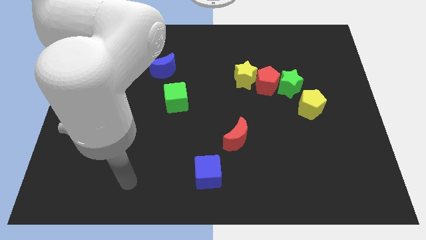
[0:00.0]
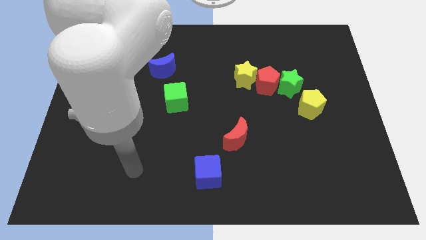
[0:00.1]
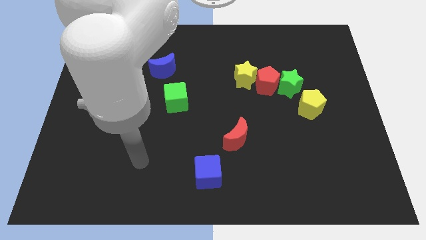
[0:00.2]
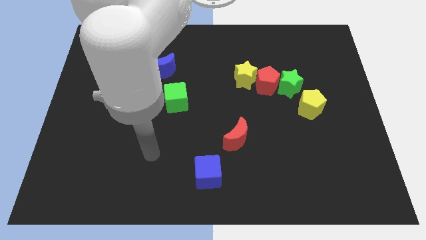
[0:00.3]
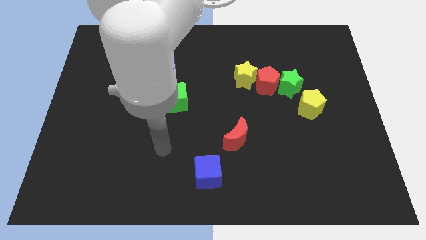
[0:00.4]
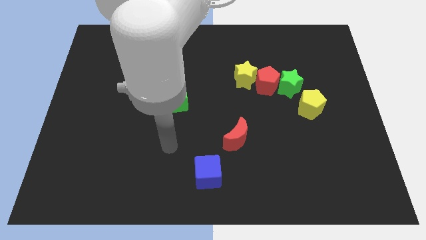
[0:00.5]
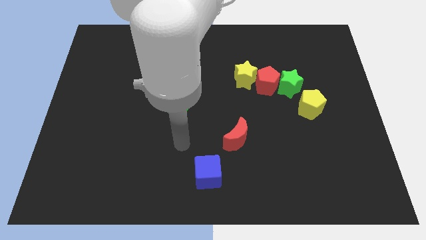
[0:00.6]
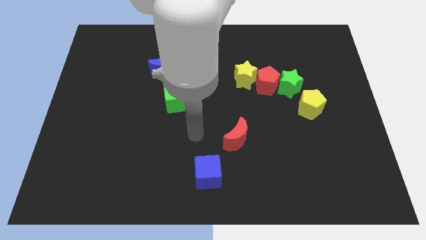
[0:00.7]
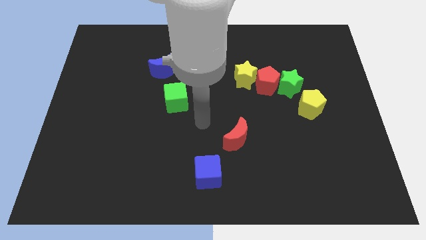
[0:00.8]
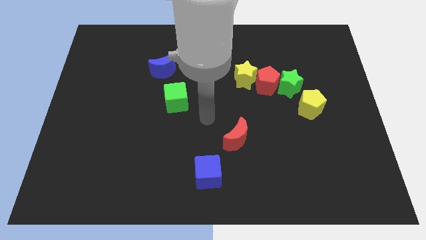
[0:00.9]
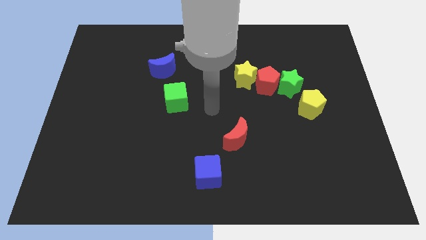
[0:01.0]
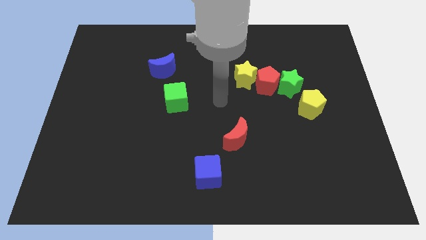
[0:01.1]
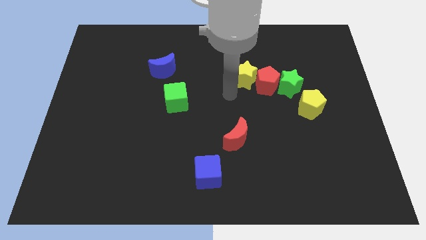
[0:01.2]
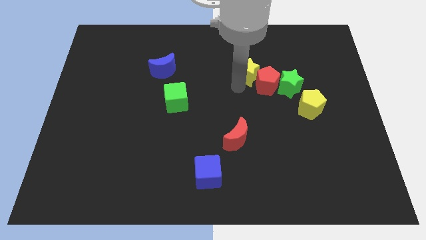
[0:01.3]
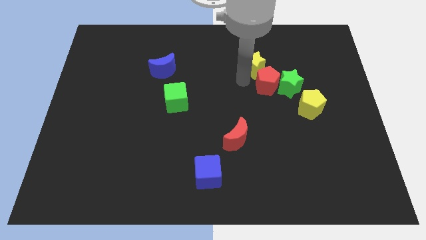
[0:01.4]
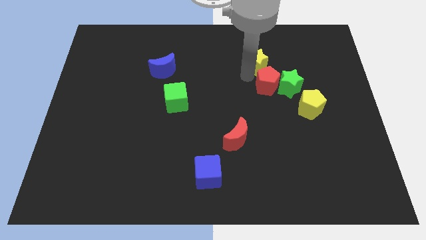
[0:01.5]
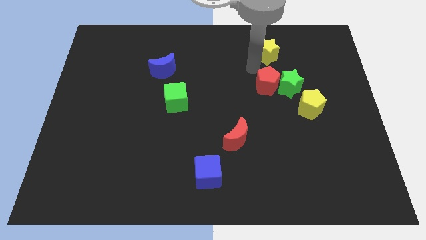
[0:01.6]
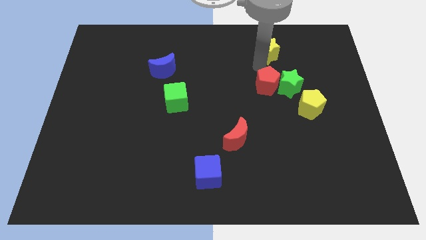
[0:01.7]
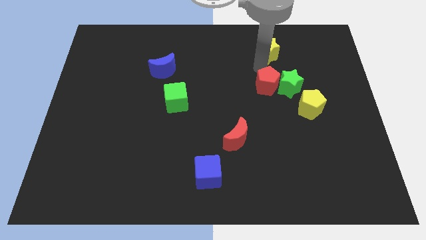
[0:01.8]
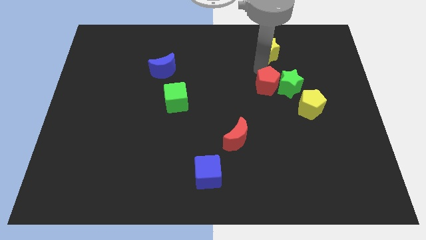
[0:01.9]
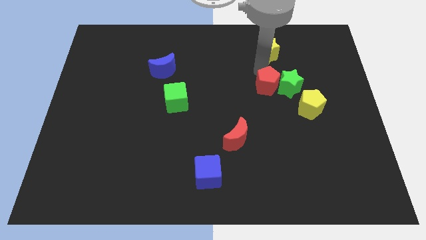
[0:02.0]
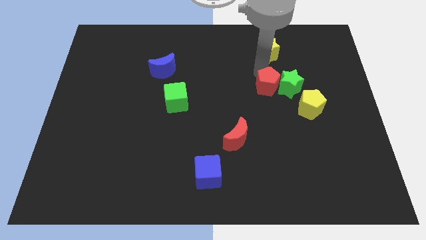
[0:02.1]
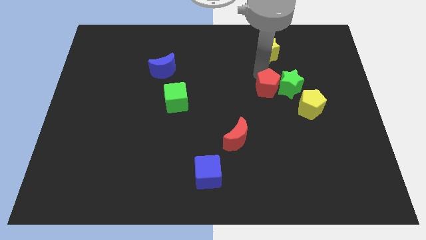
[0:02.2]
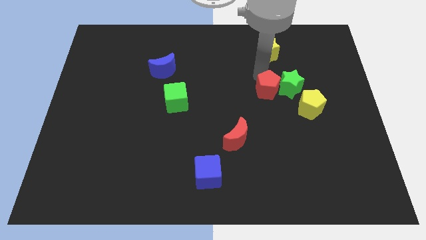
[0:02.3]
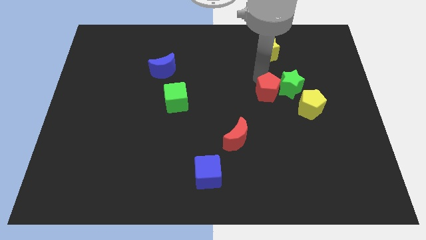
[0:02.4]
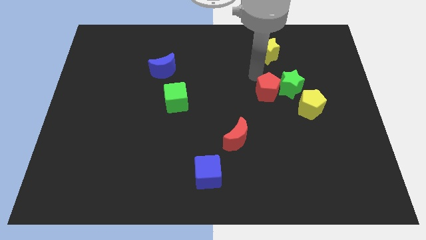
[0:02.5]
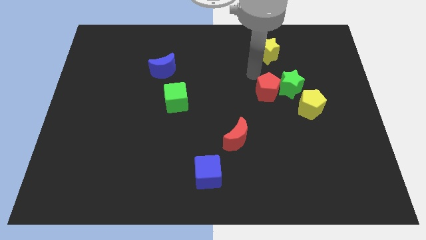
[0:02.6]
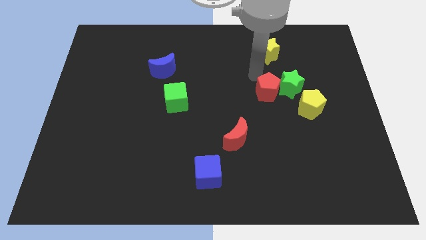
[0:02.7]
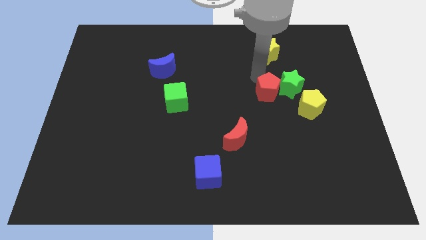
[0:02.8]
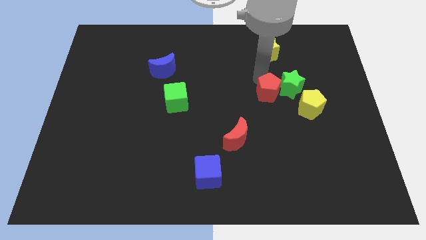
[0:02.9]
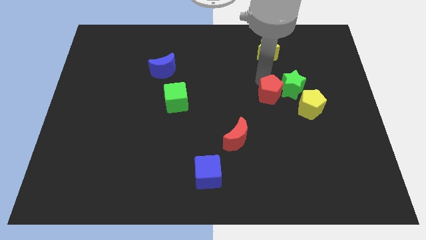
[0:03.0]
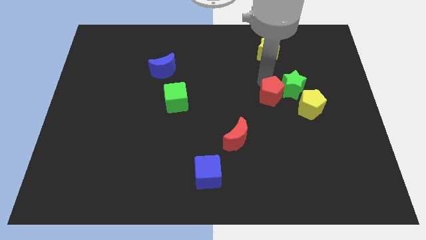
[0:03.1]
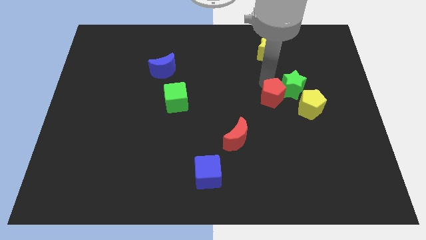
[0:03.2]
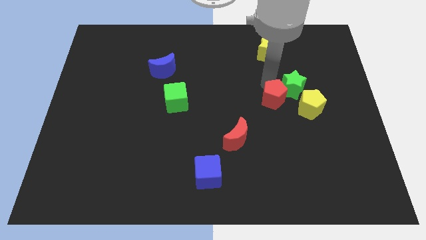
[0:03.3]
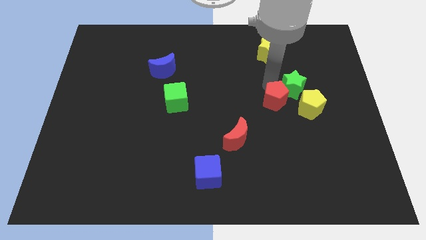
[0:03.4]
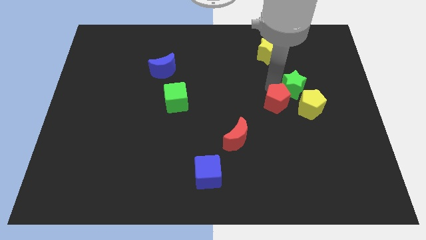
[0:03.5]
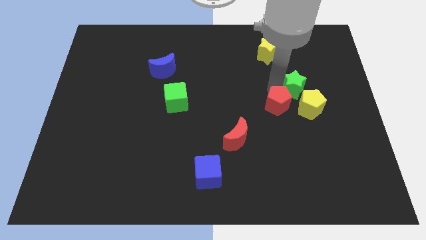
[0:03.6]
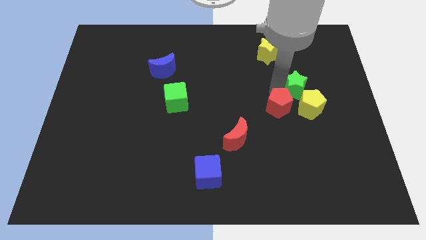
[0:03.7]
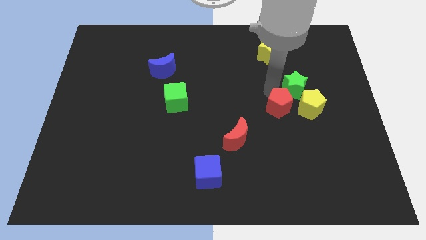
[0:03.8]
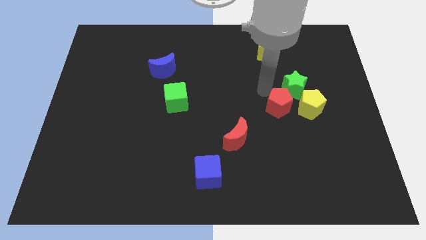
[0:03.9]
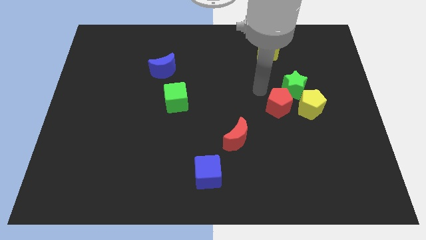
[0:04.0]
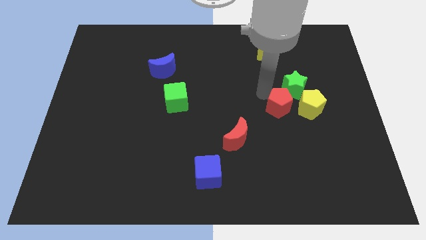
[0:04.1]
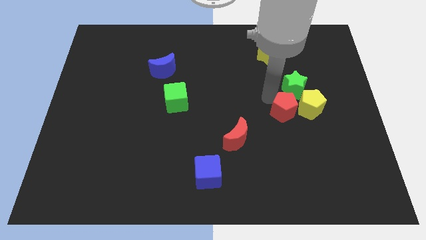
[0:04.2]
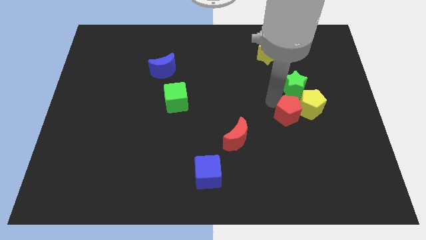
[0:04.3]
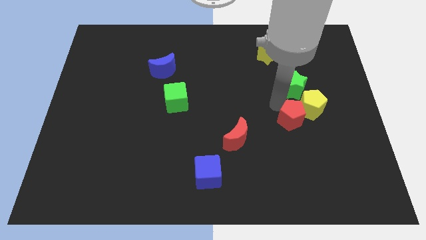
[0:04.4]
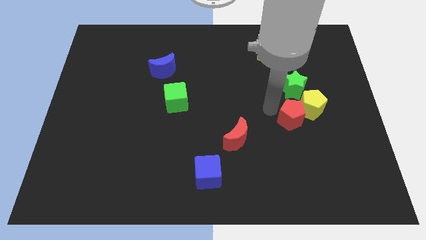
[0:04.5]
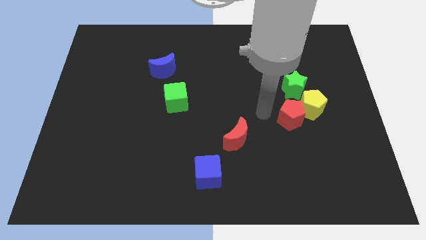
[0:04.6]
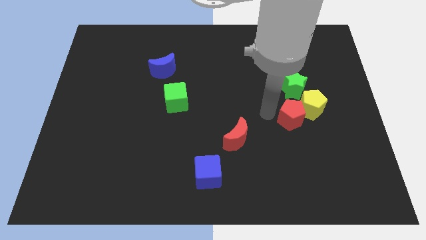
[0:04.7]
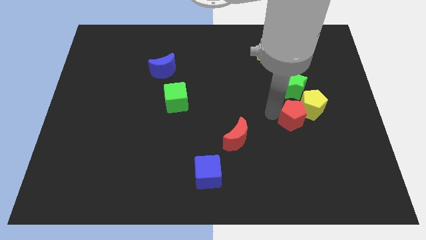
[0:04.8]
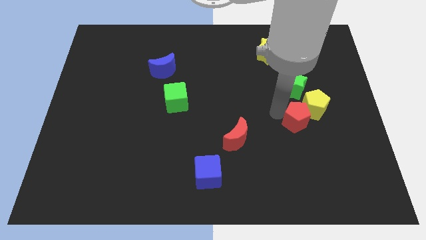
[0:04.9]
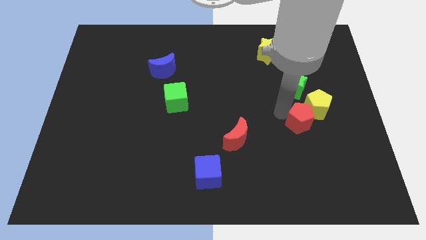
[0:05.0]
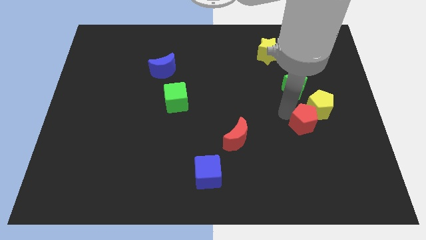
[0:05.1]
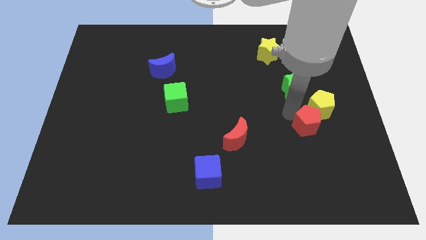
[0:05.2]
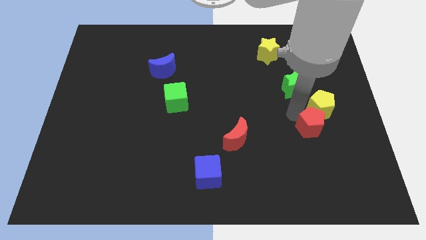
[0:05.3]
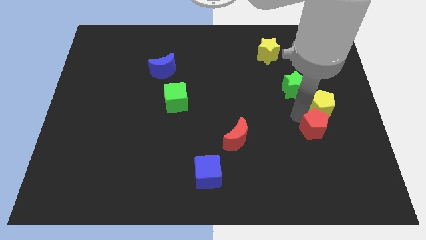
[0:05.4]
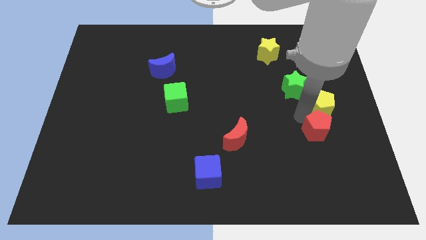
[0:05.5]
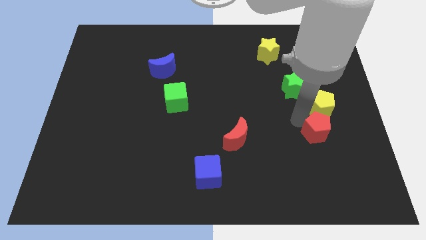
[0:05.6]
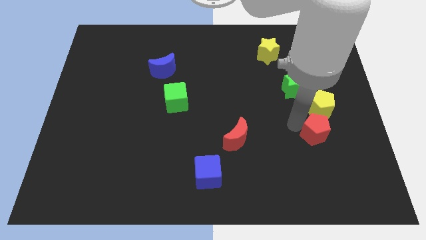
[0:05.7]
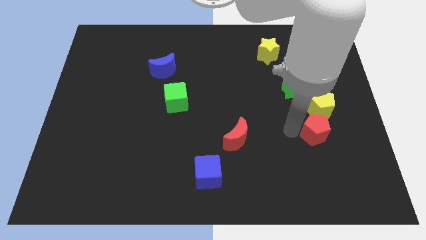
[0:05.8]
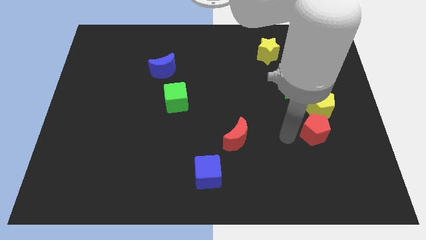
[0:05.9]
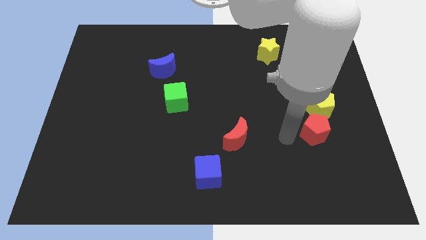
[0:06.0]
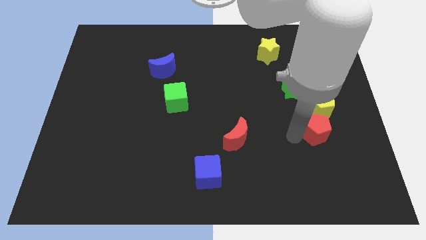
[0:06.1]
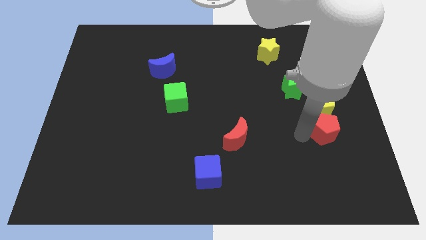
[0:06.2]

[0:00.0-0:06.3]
move the red pentagon to the bottom right of the yellow pentagon

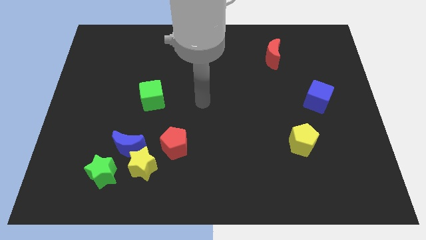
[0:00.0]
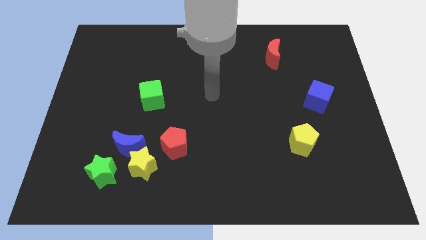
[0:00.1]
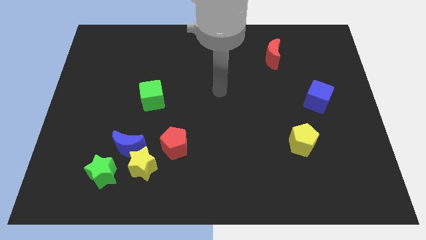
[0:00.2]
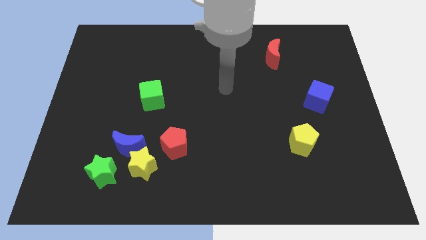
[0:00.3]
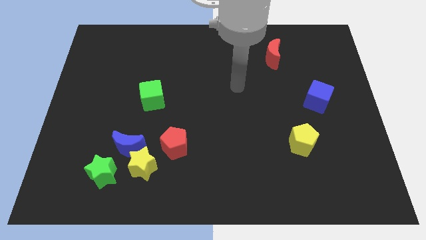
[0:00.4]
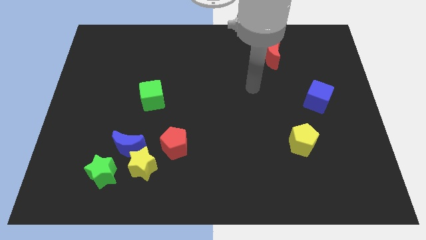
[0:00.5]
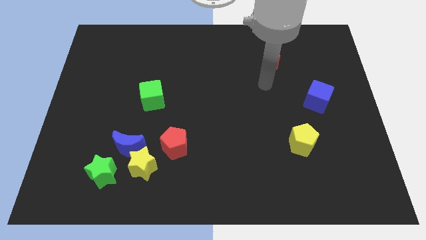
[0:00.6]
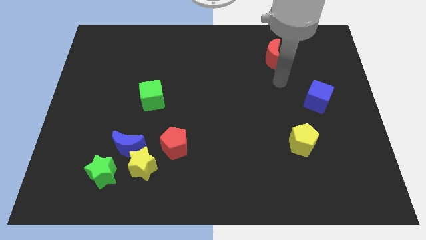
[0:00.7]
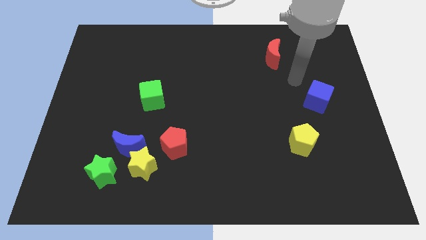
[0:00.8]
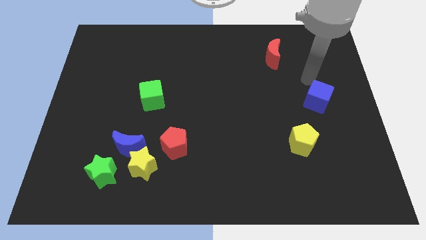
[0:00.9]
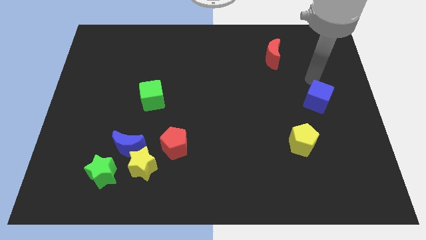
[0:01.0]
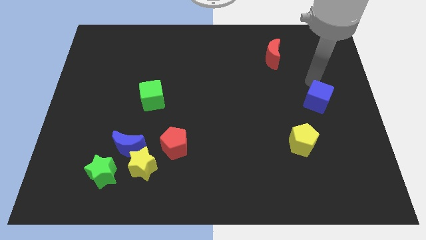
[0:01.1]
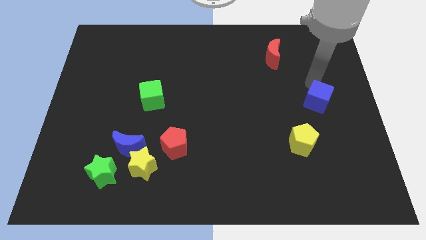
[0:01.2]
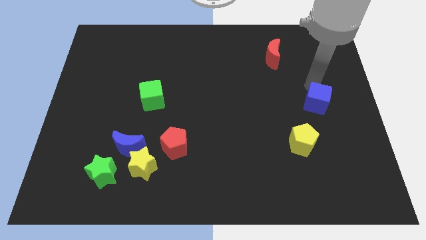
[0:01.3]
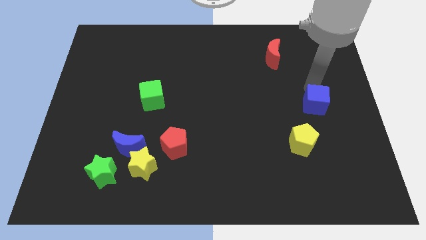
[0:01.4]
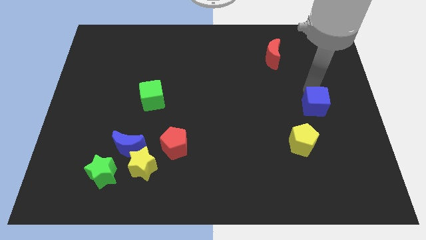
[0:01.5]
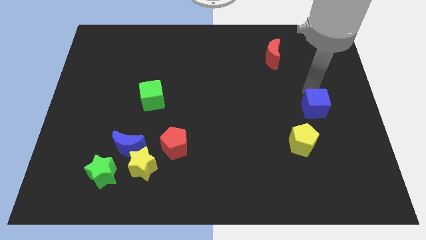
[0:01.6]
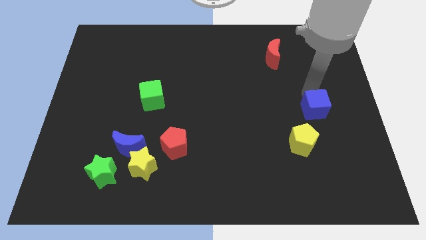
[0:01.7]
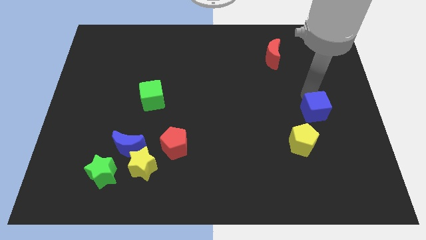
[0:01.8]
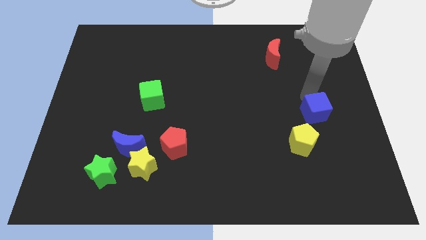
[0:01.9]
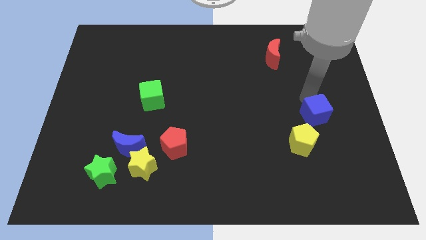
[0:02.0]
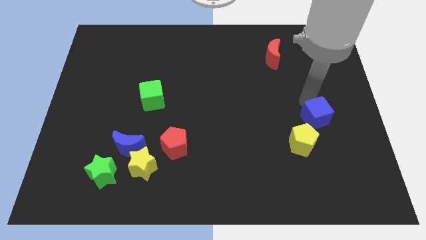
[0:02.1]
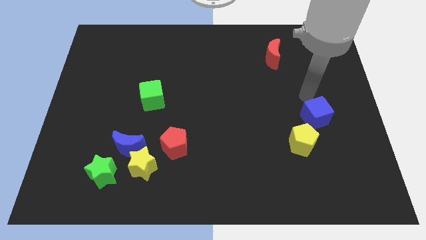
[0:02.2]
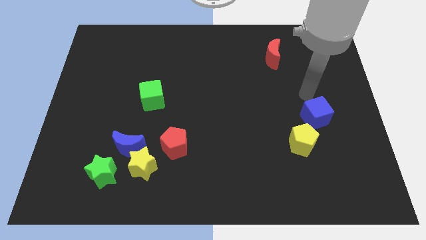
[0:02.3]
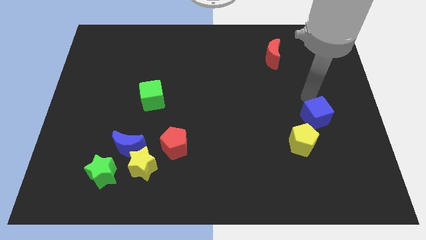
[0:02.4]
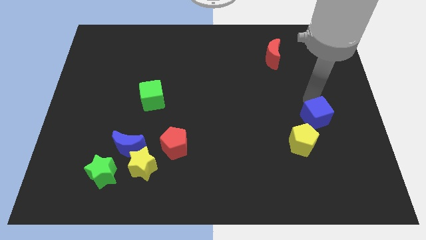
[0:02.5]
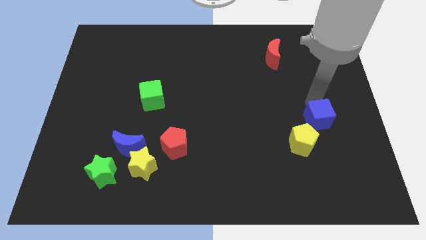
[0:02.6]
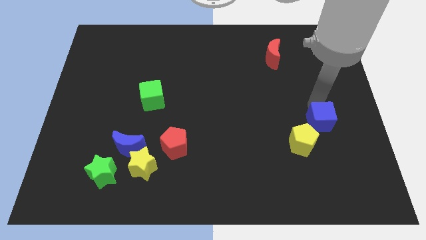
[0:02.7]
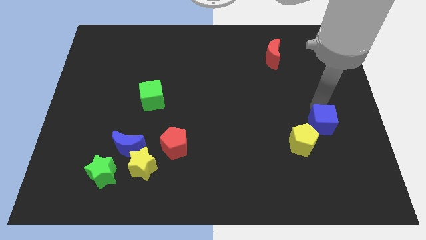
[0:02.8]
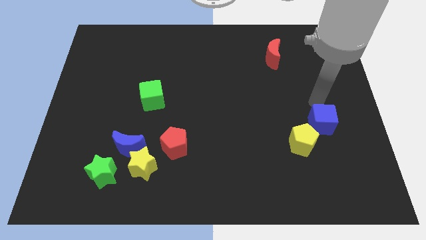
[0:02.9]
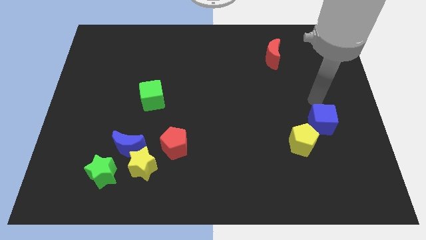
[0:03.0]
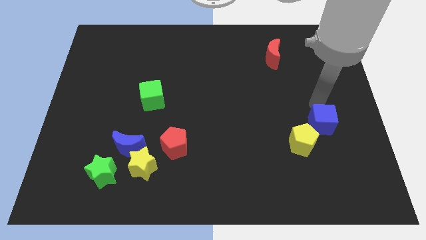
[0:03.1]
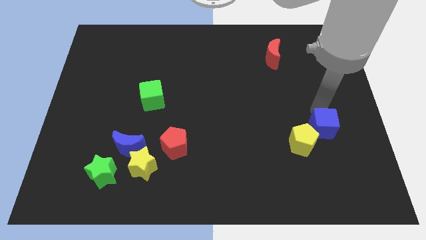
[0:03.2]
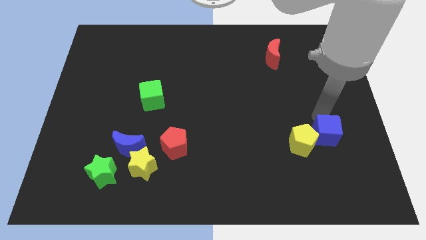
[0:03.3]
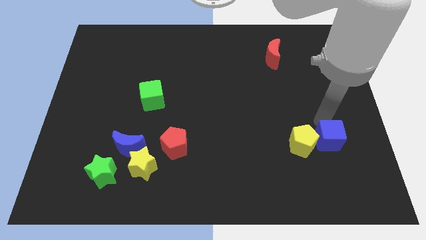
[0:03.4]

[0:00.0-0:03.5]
slide the blue cube to the bottom right side of the yellow pentagon
